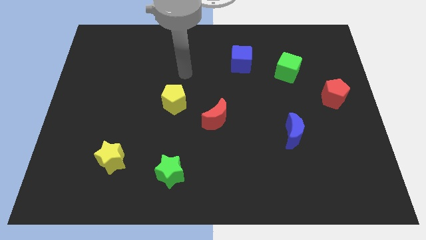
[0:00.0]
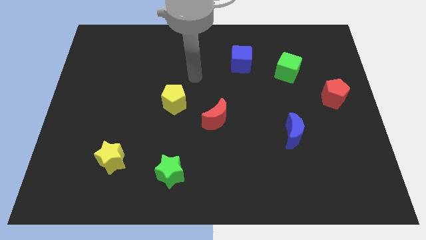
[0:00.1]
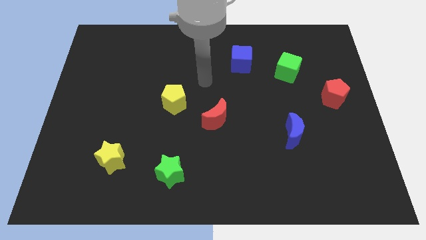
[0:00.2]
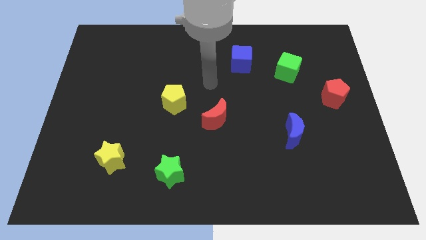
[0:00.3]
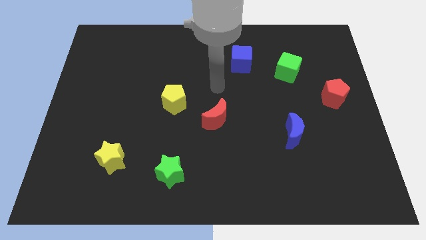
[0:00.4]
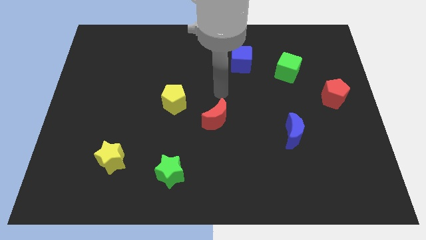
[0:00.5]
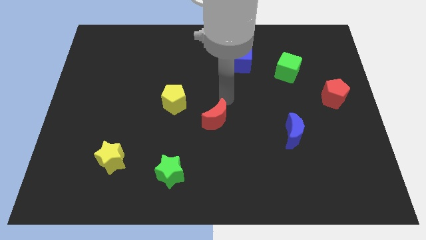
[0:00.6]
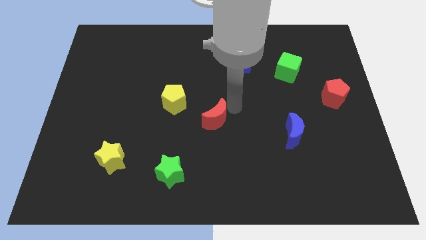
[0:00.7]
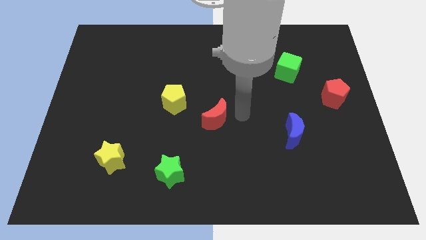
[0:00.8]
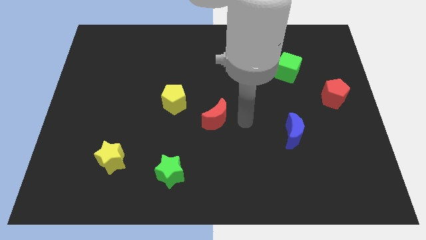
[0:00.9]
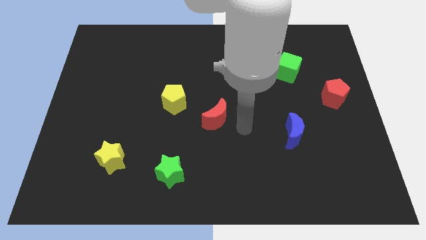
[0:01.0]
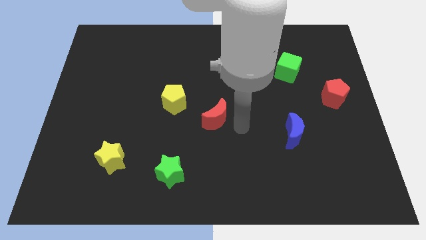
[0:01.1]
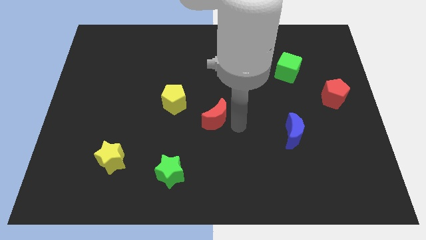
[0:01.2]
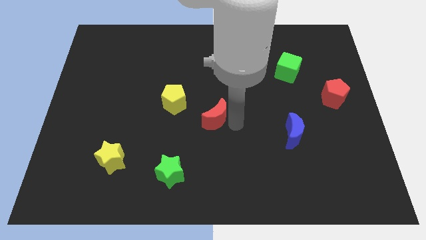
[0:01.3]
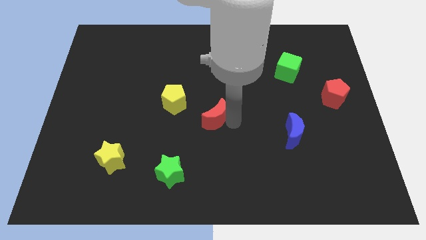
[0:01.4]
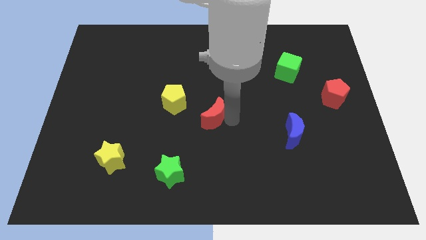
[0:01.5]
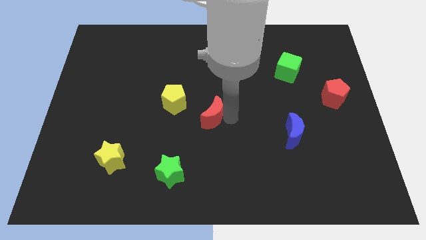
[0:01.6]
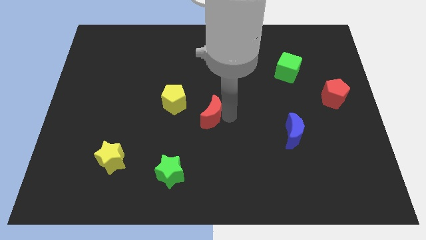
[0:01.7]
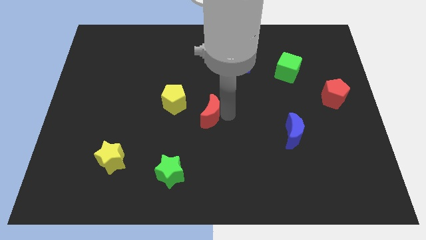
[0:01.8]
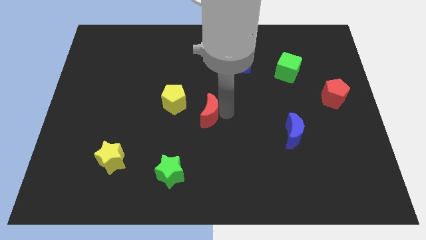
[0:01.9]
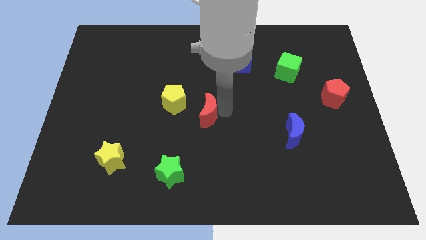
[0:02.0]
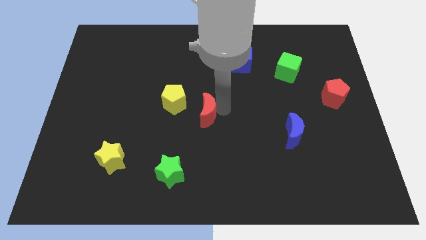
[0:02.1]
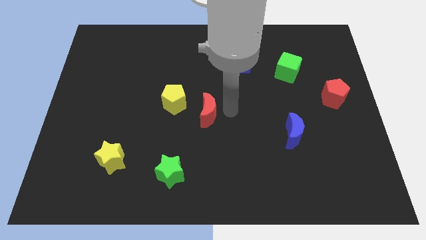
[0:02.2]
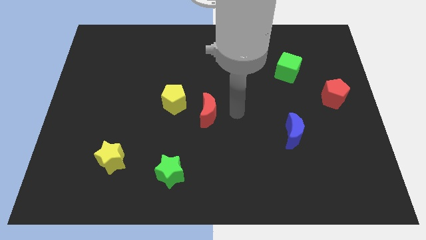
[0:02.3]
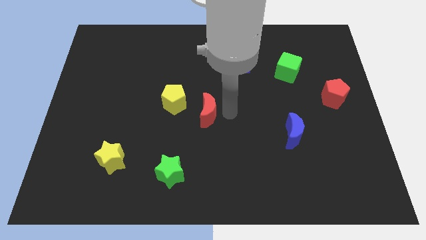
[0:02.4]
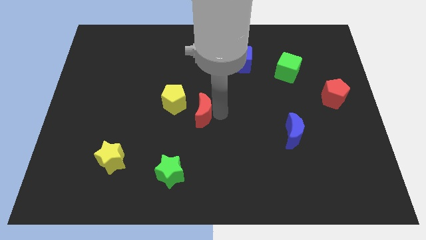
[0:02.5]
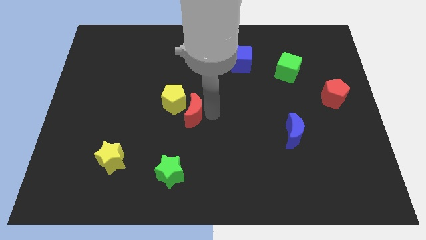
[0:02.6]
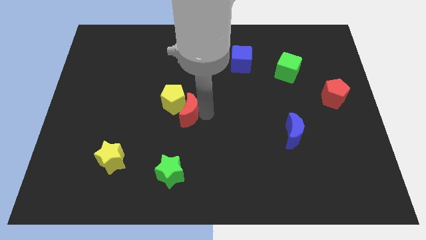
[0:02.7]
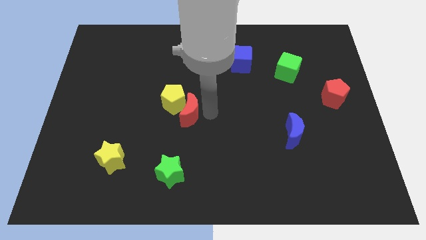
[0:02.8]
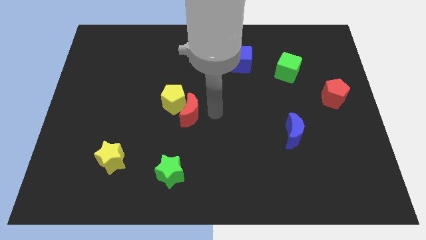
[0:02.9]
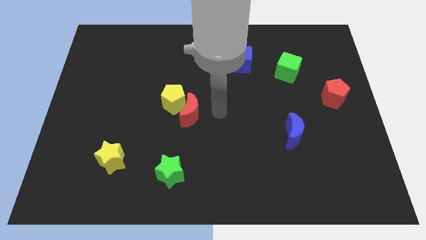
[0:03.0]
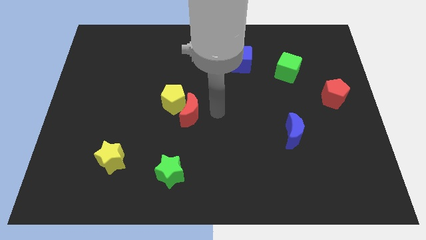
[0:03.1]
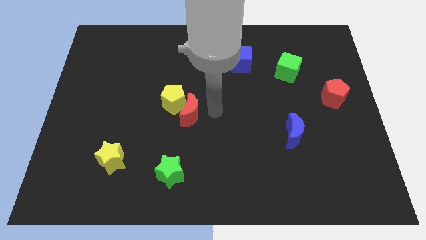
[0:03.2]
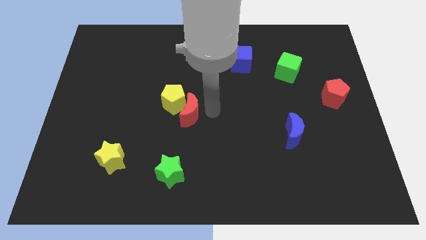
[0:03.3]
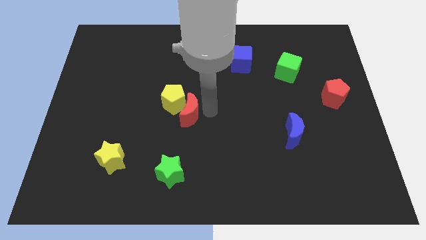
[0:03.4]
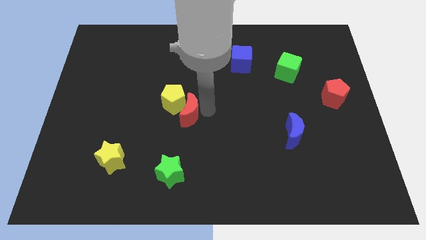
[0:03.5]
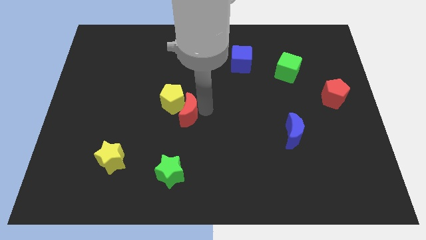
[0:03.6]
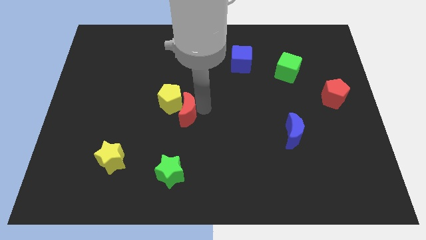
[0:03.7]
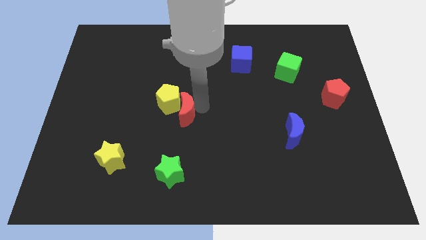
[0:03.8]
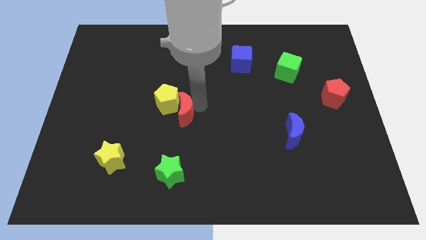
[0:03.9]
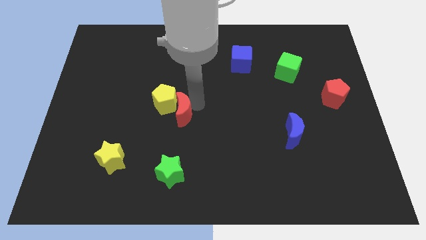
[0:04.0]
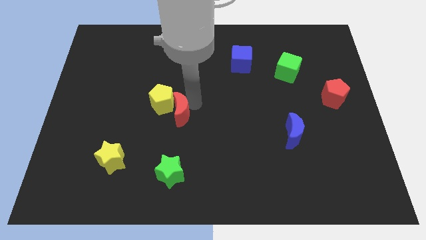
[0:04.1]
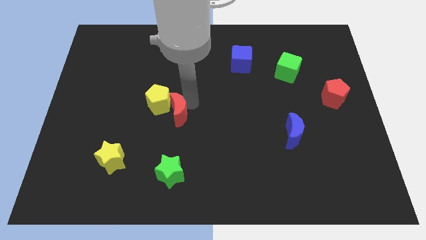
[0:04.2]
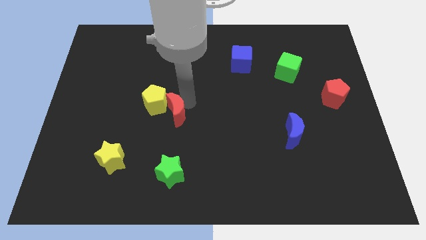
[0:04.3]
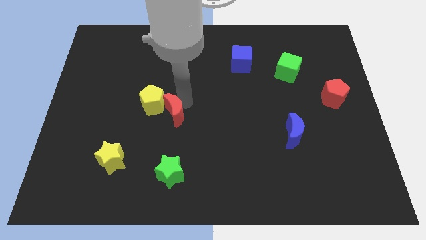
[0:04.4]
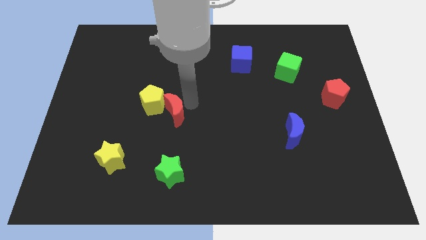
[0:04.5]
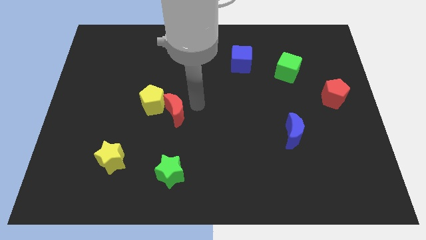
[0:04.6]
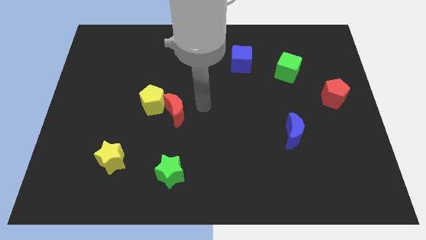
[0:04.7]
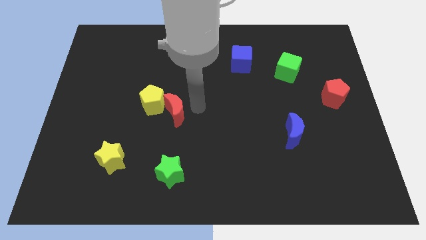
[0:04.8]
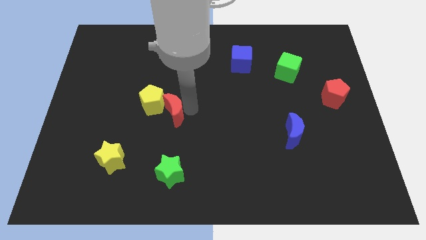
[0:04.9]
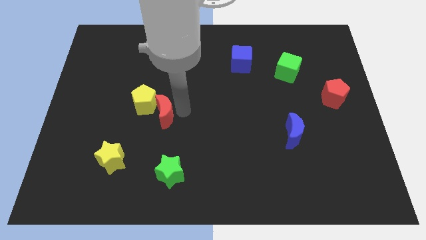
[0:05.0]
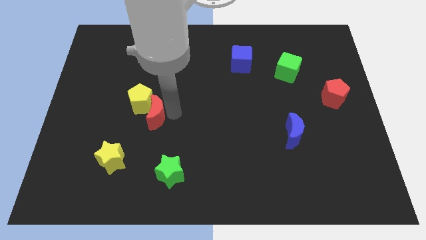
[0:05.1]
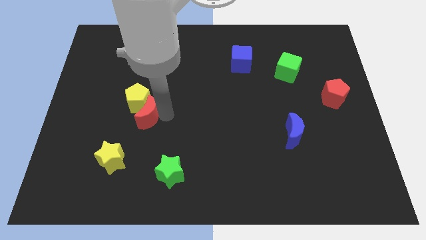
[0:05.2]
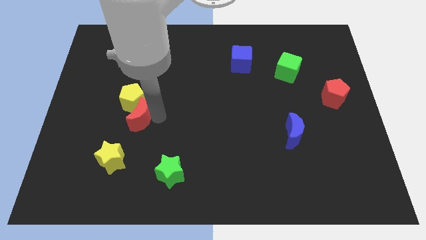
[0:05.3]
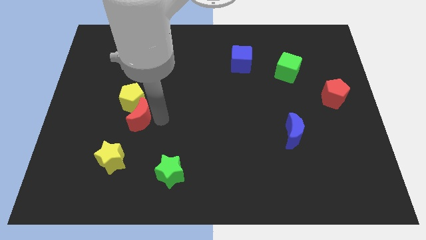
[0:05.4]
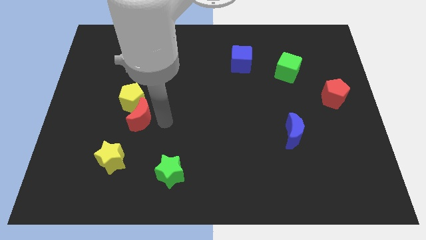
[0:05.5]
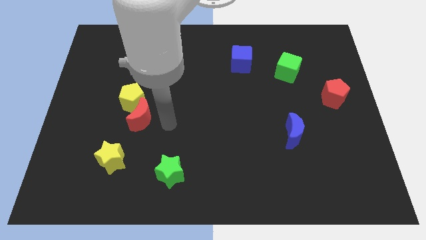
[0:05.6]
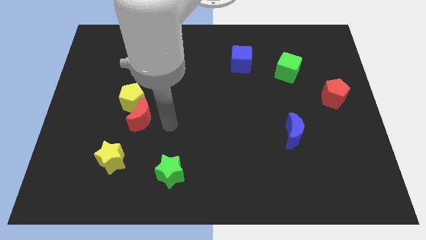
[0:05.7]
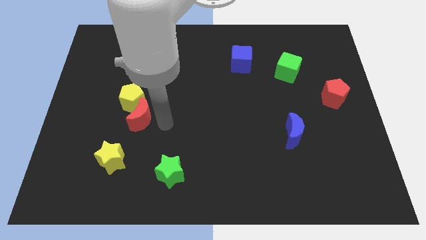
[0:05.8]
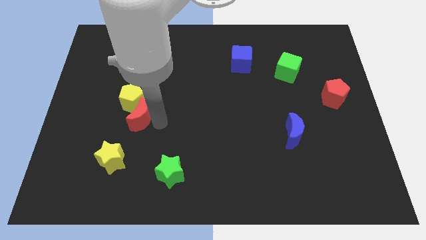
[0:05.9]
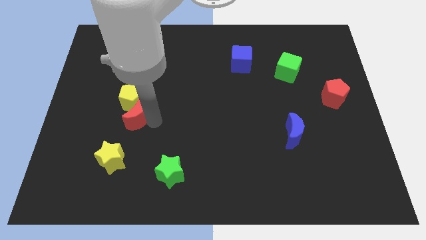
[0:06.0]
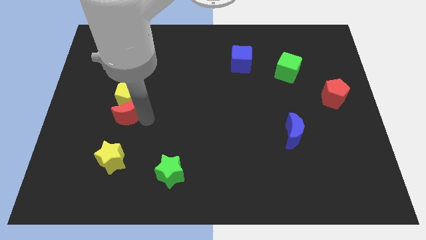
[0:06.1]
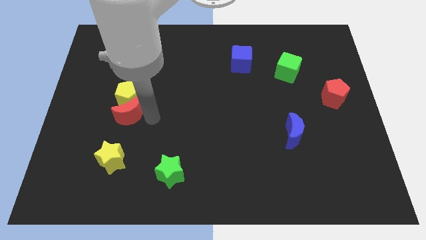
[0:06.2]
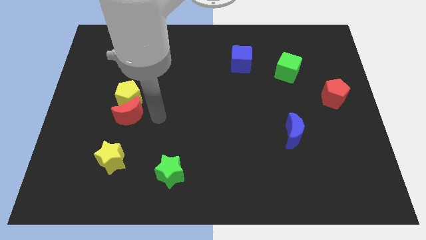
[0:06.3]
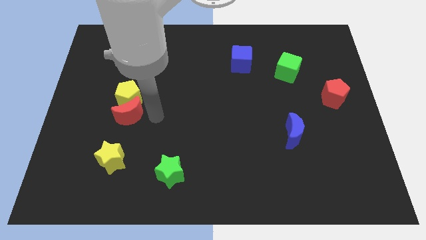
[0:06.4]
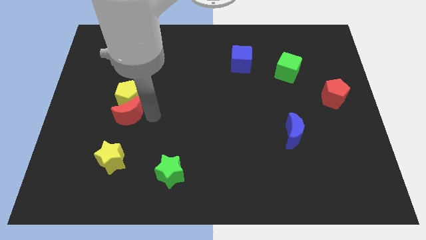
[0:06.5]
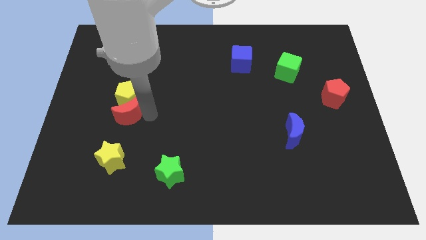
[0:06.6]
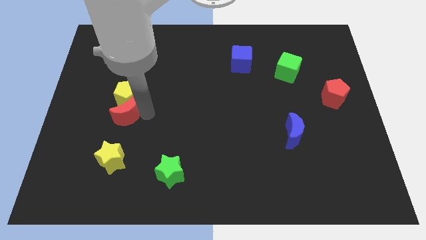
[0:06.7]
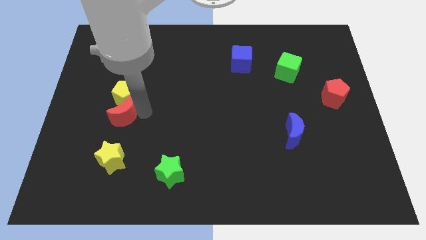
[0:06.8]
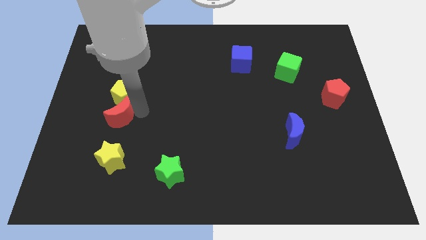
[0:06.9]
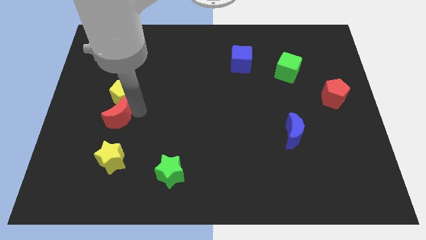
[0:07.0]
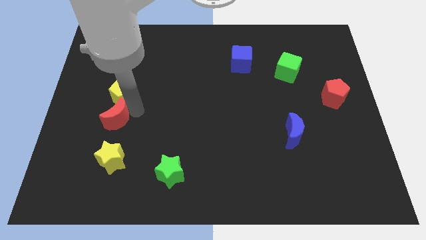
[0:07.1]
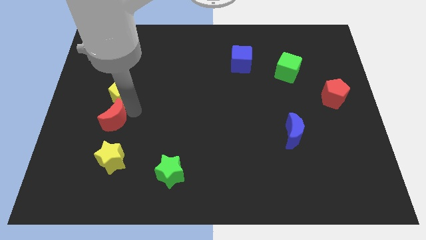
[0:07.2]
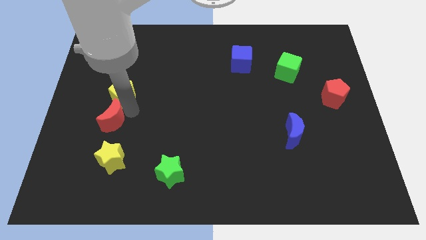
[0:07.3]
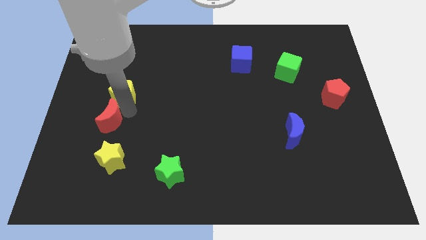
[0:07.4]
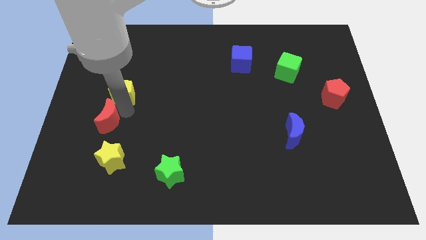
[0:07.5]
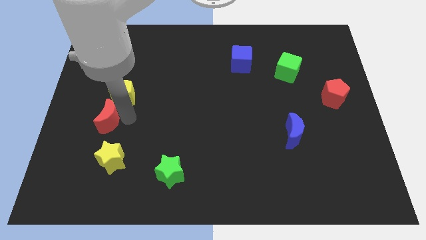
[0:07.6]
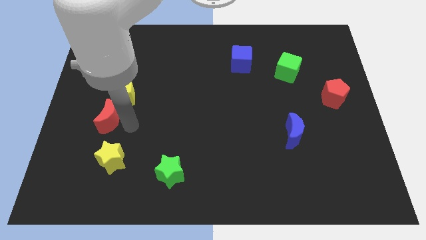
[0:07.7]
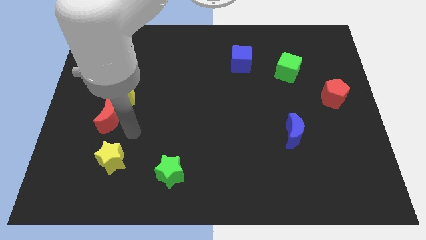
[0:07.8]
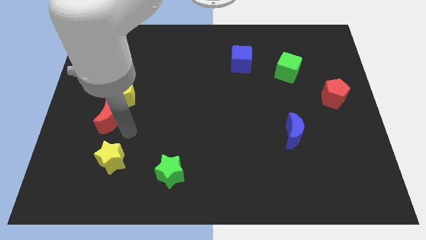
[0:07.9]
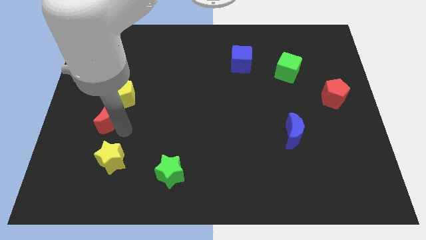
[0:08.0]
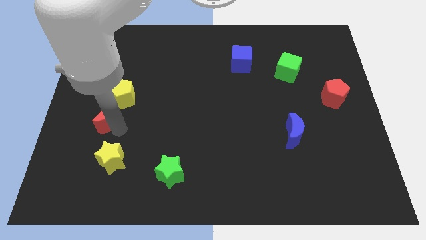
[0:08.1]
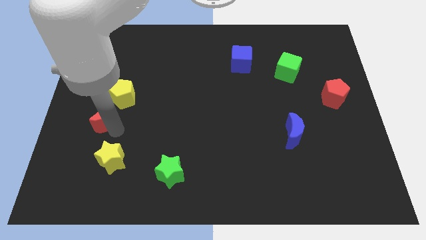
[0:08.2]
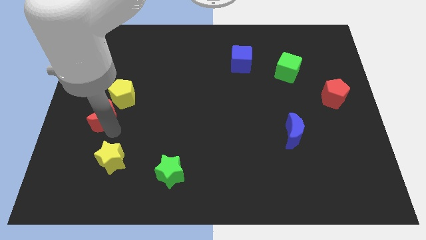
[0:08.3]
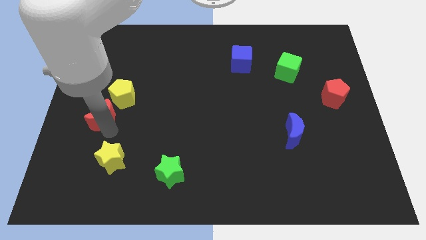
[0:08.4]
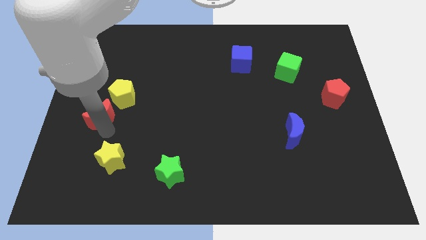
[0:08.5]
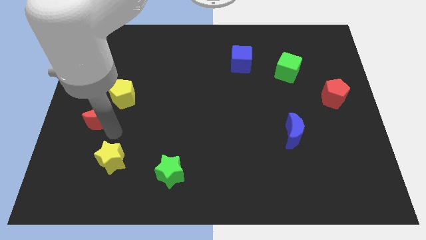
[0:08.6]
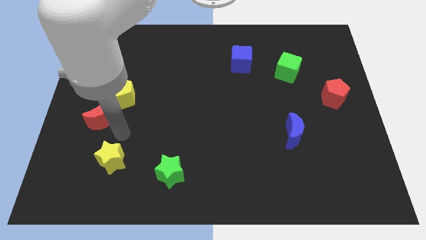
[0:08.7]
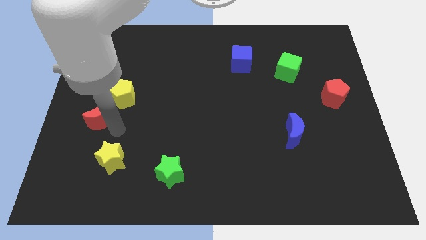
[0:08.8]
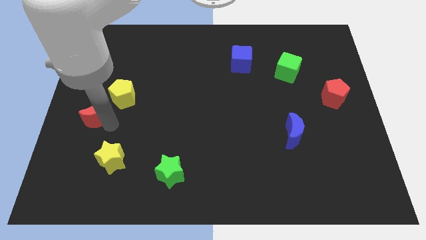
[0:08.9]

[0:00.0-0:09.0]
slide the red moon to the left side
